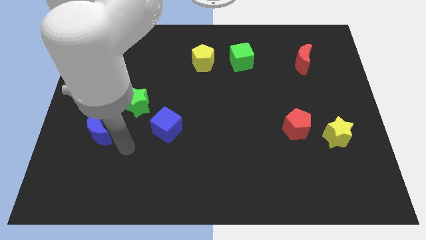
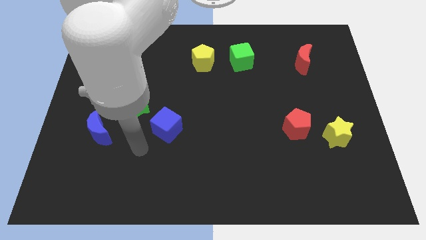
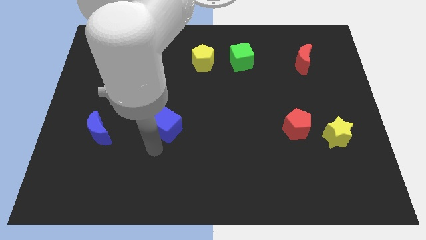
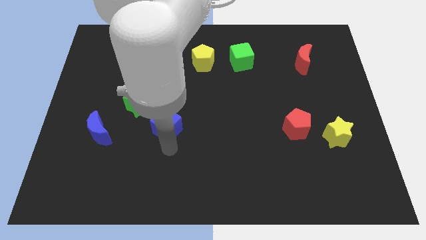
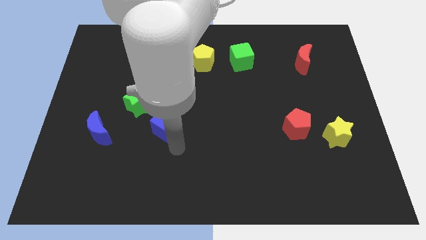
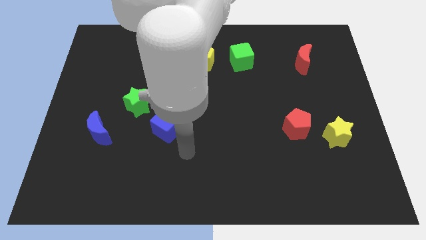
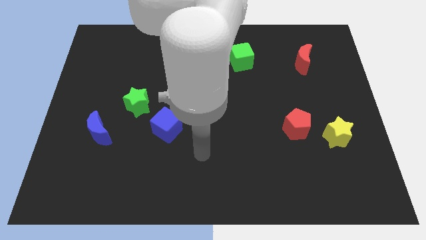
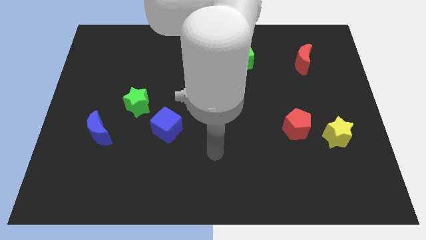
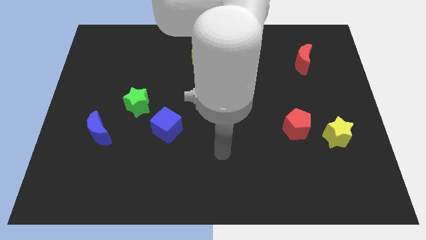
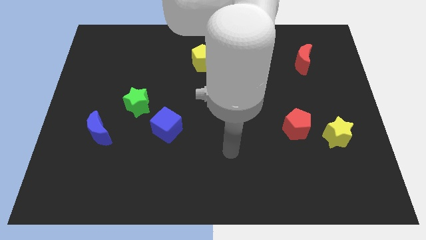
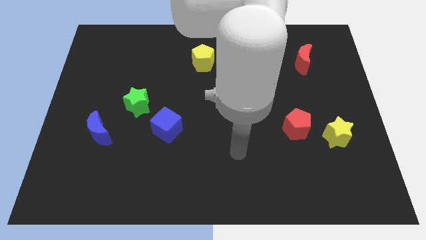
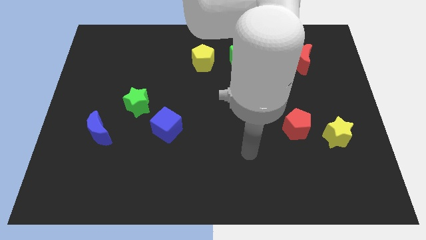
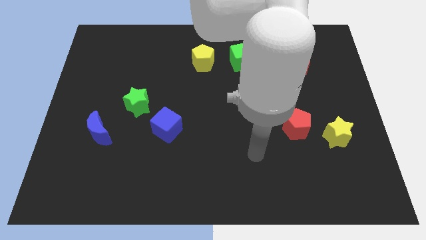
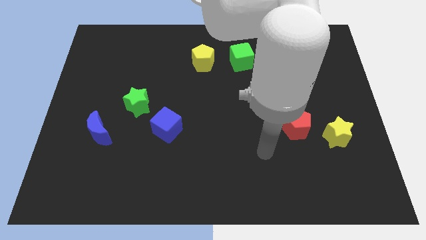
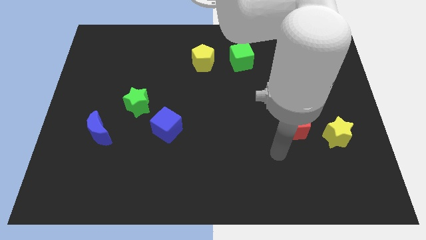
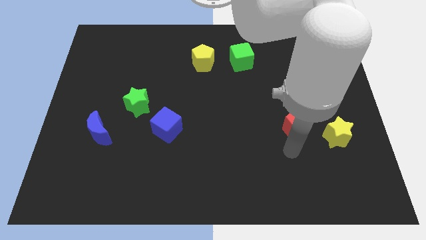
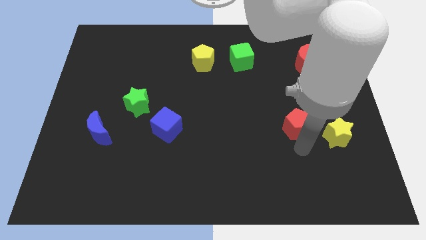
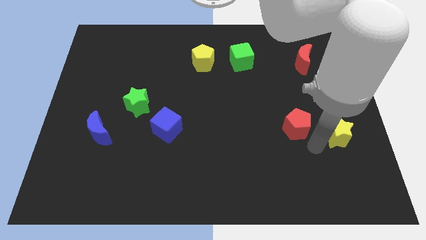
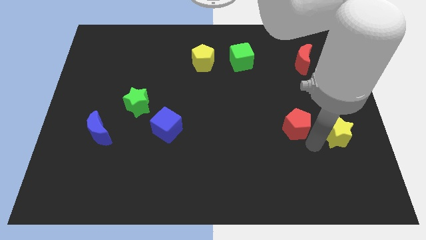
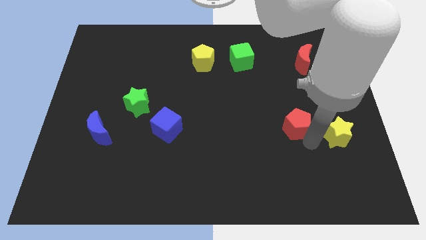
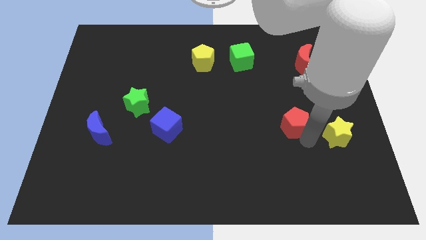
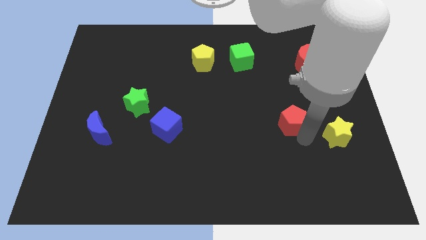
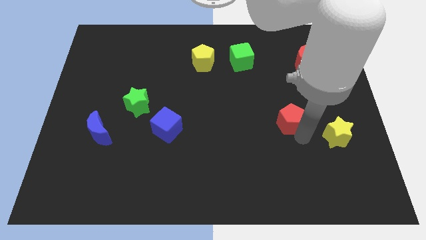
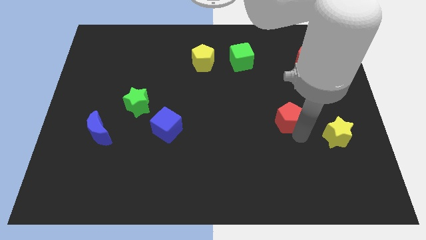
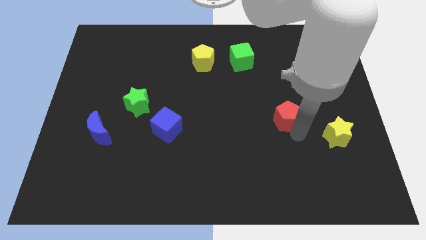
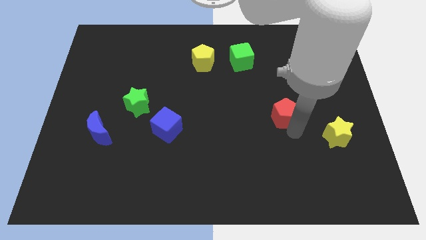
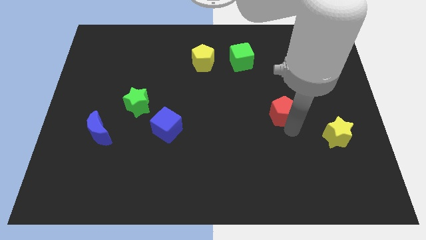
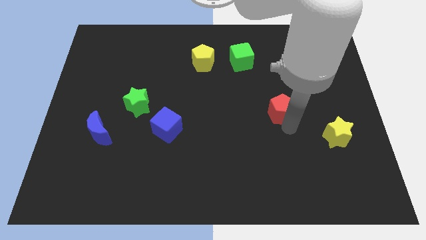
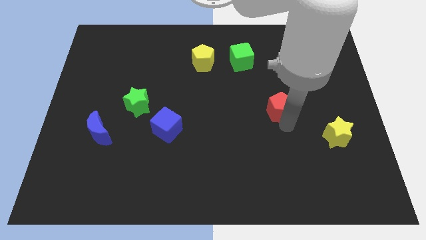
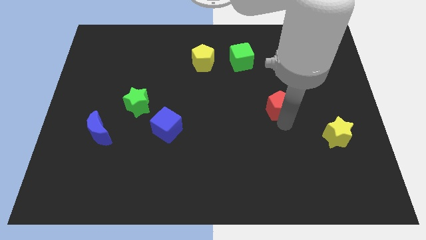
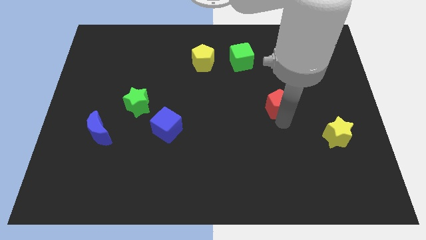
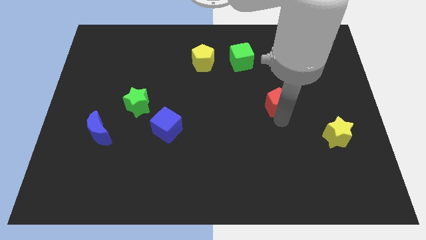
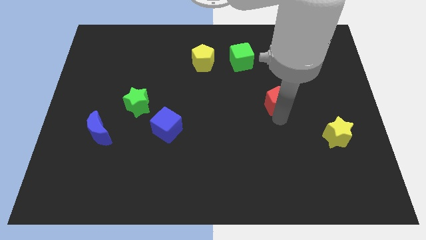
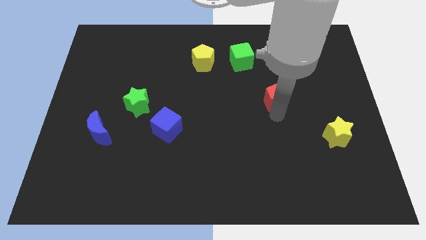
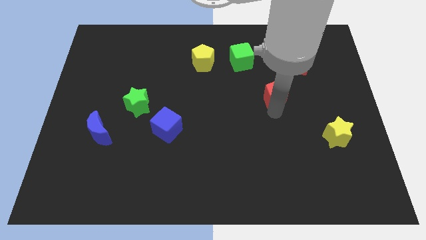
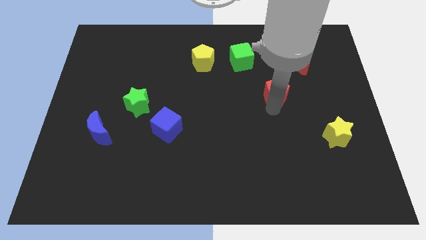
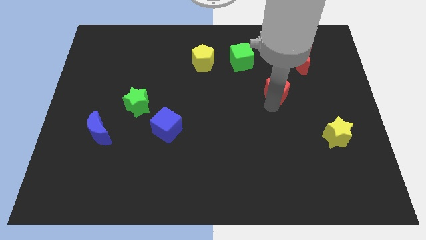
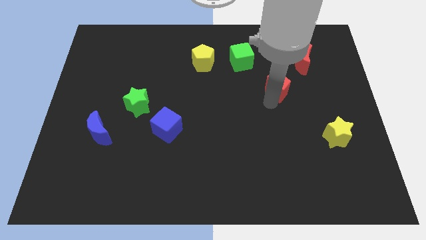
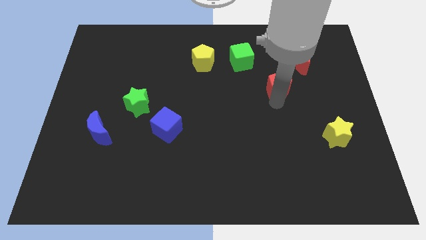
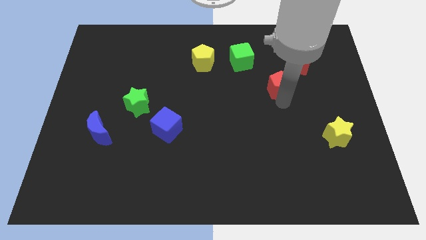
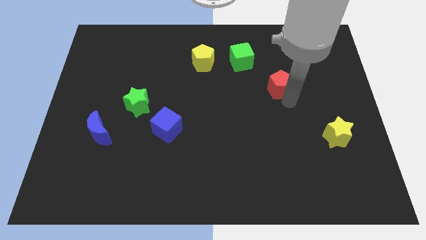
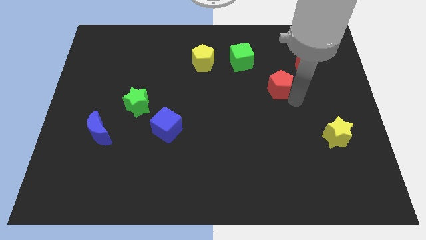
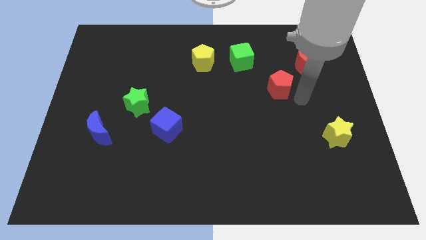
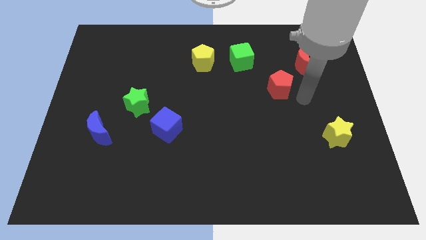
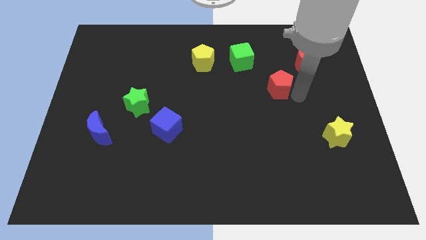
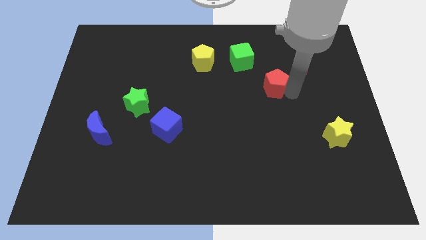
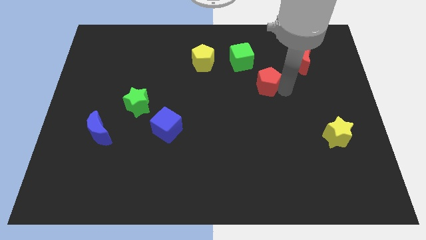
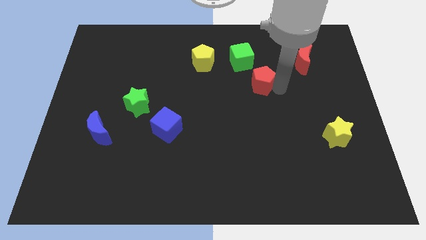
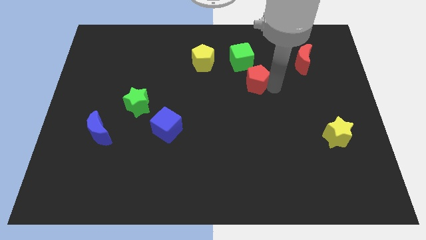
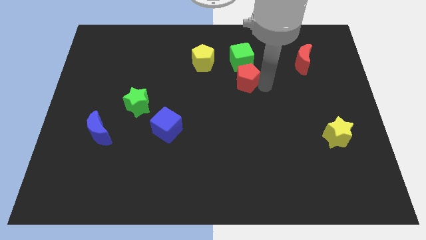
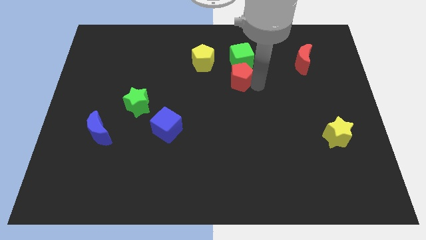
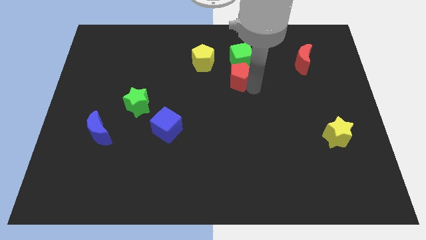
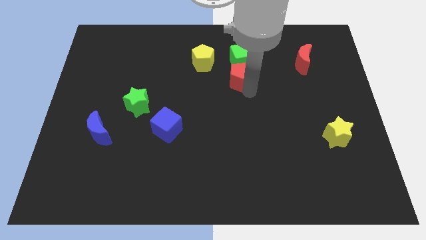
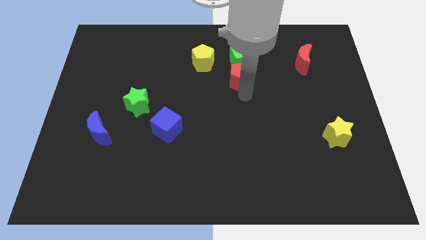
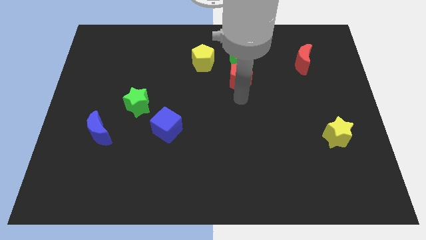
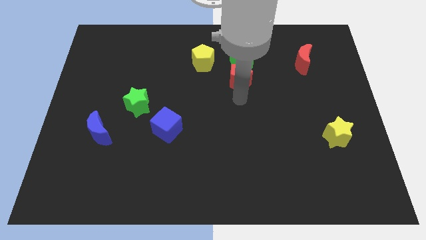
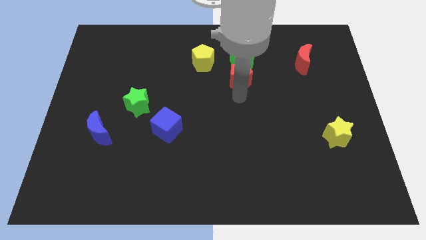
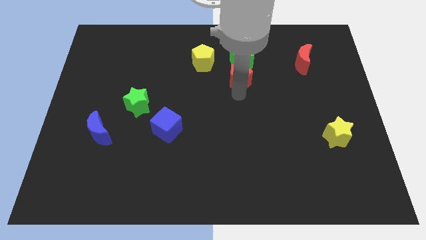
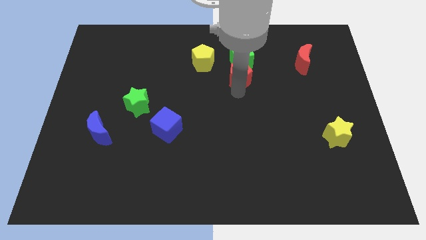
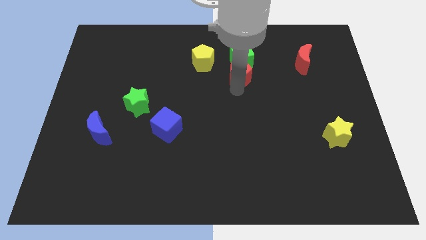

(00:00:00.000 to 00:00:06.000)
push the red pentagon close to the green cube

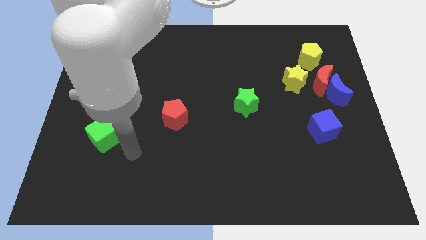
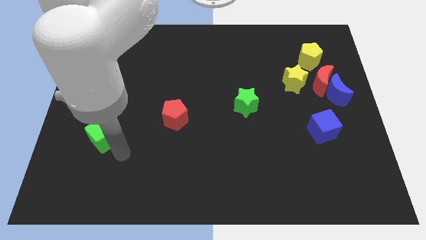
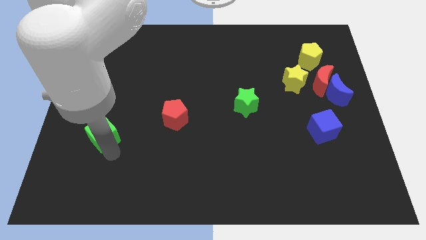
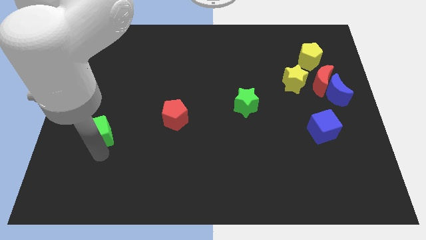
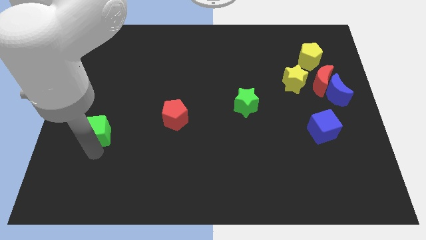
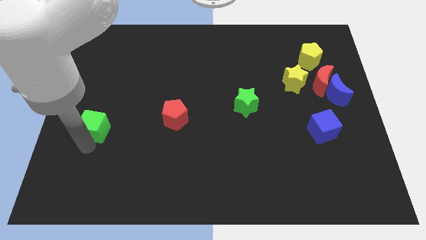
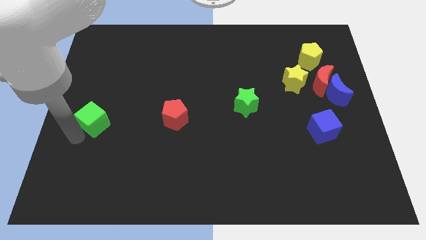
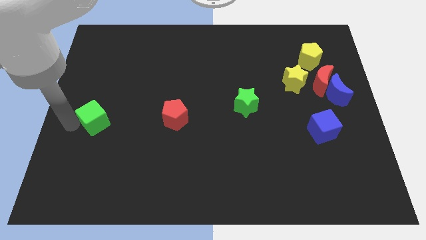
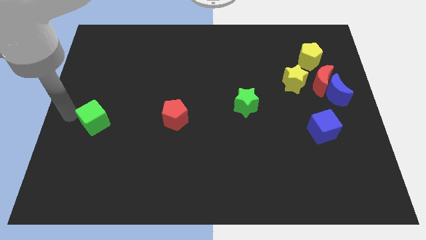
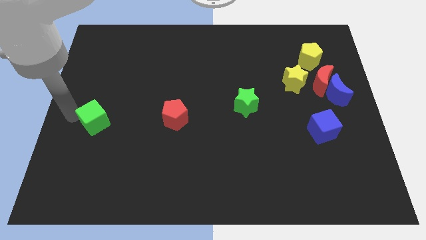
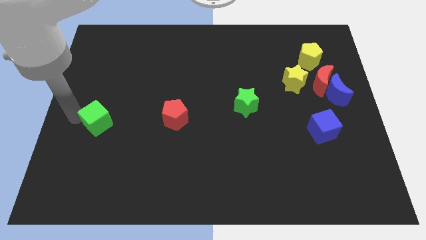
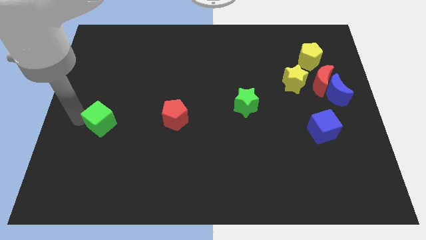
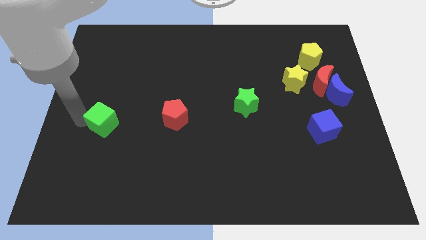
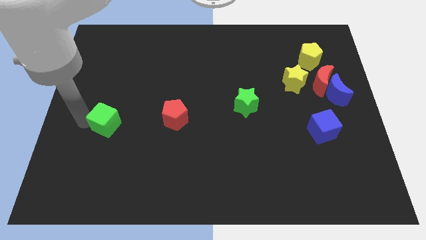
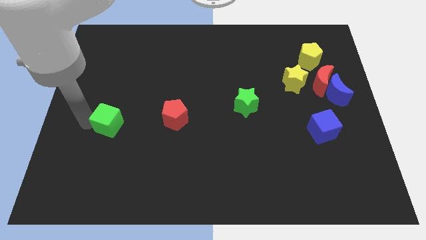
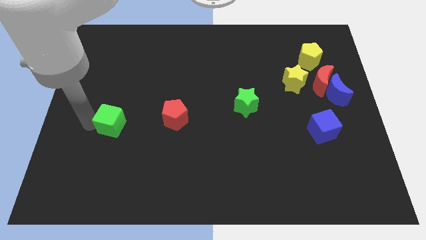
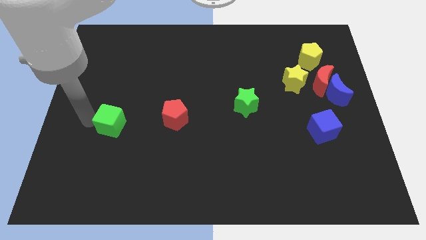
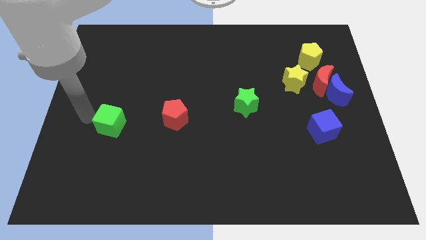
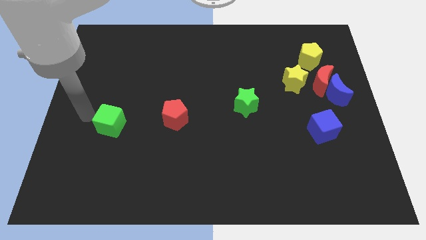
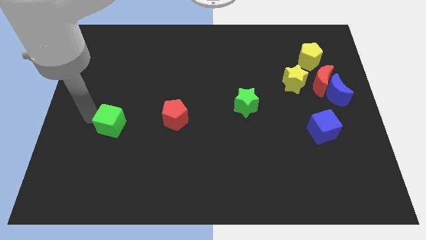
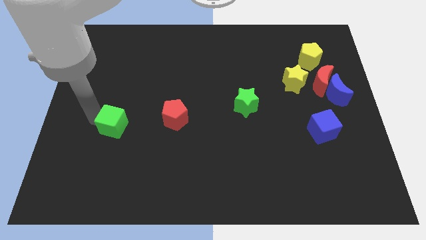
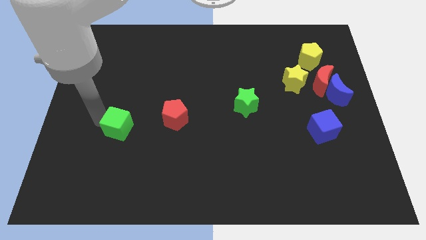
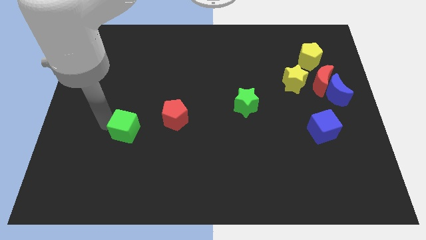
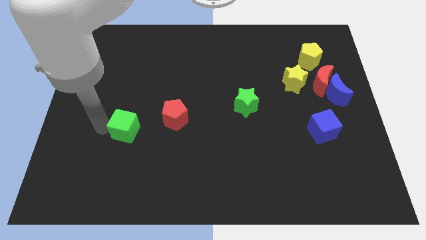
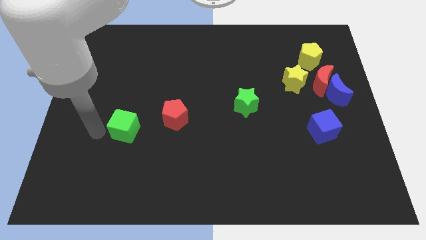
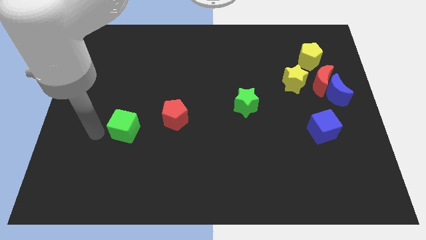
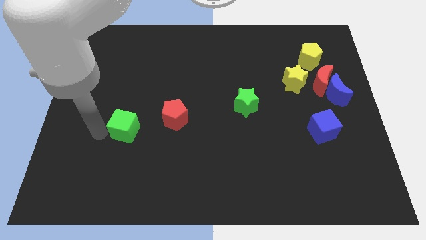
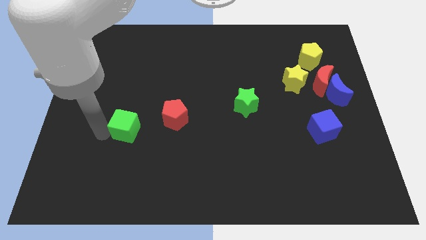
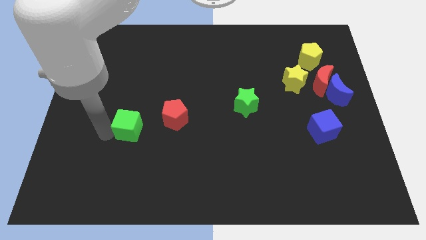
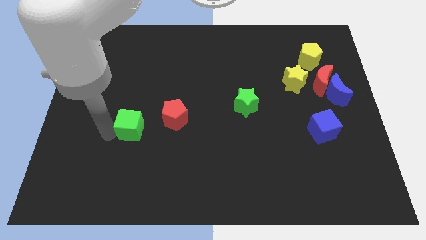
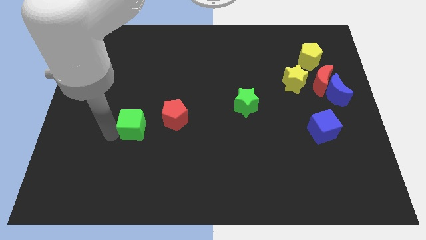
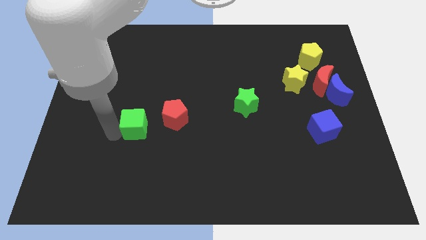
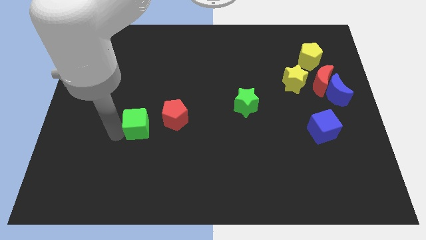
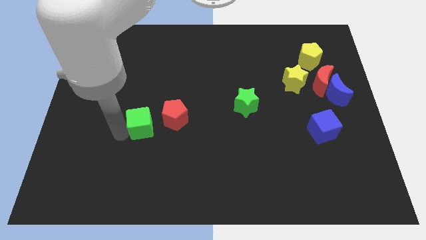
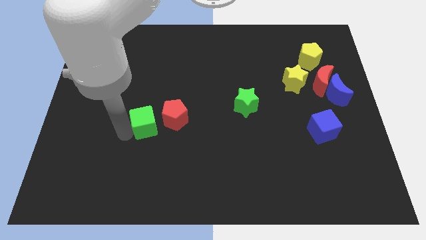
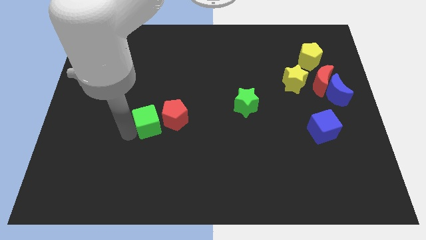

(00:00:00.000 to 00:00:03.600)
slide the green cube to the red pentagon
